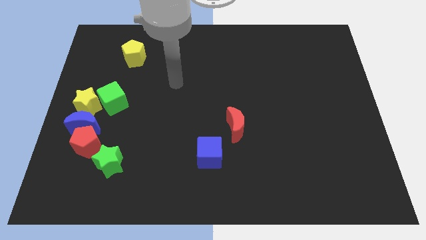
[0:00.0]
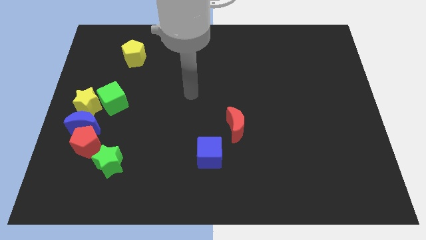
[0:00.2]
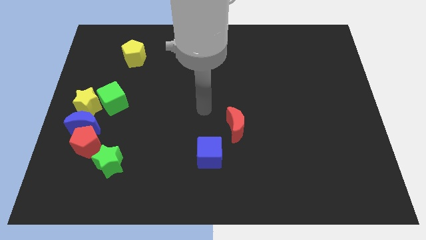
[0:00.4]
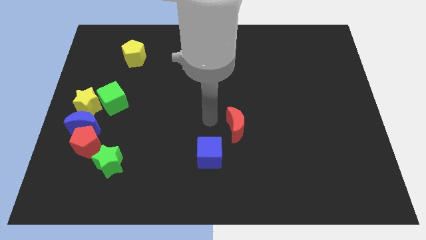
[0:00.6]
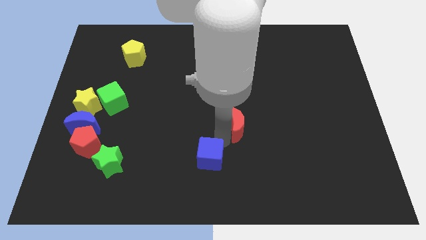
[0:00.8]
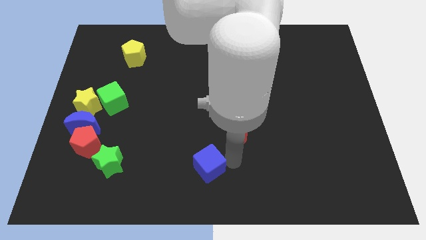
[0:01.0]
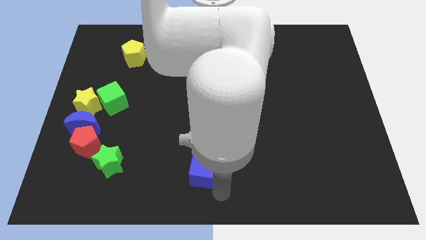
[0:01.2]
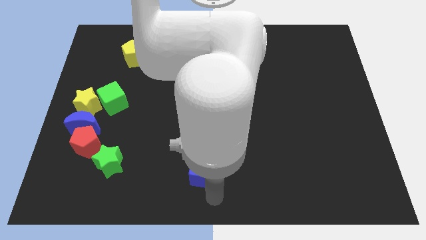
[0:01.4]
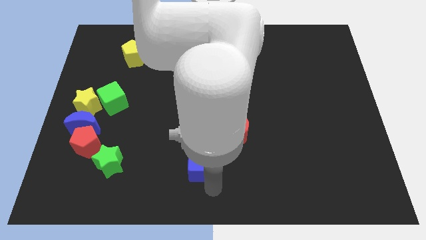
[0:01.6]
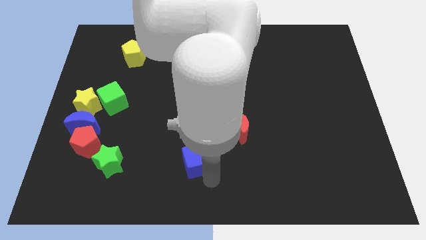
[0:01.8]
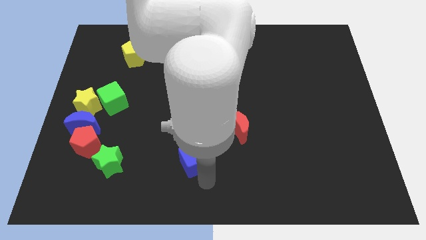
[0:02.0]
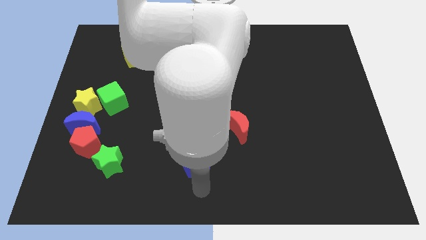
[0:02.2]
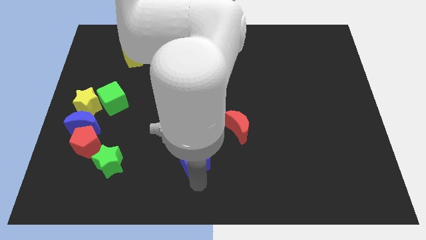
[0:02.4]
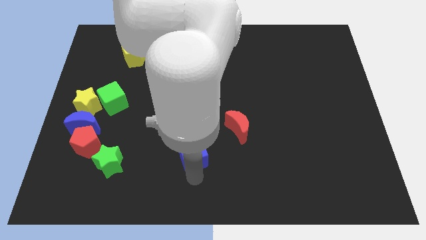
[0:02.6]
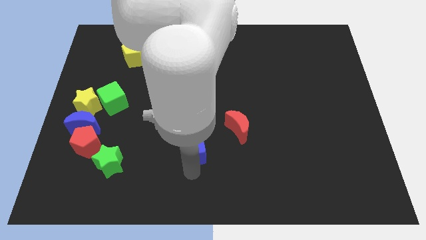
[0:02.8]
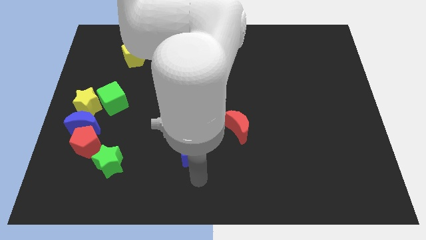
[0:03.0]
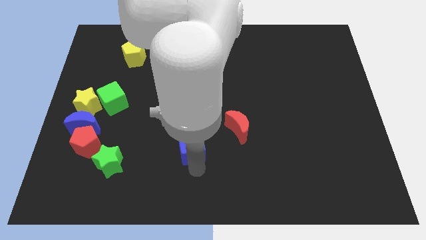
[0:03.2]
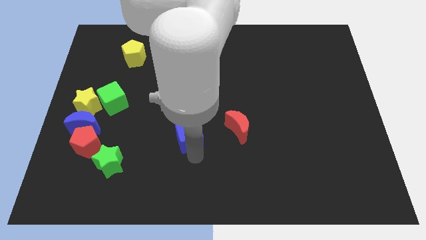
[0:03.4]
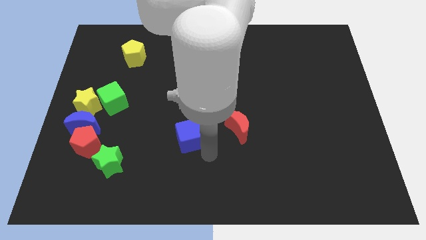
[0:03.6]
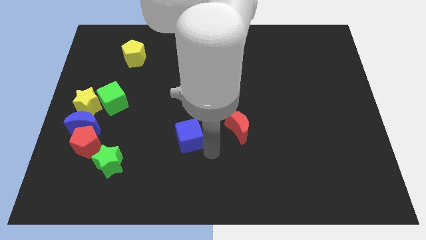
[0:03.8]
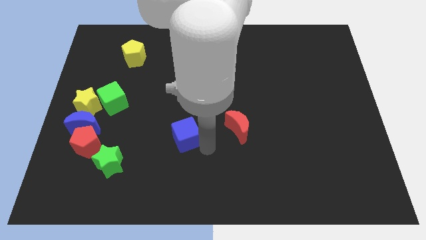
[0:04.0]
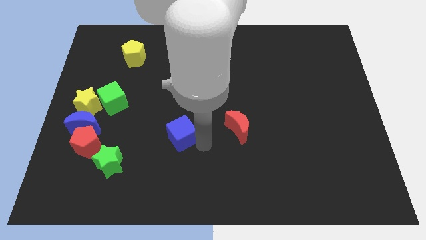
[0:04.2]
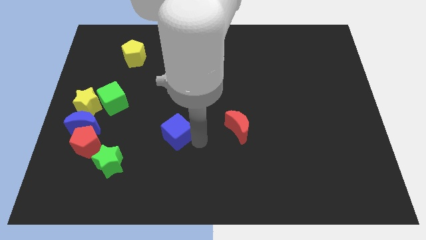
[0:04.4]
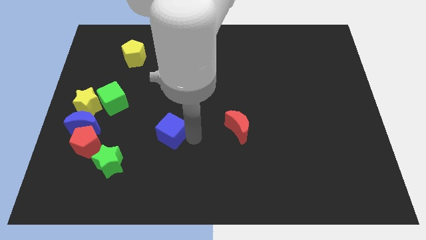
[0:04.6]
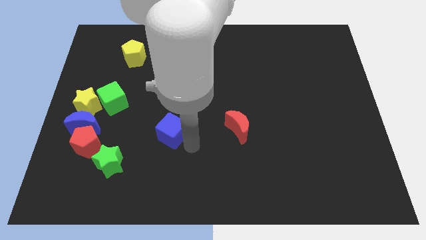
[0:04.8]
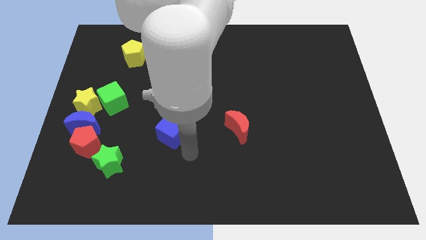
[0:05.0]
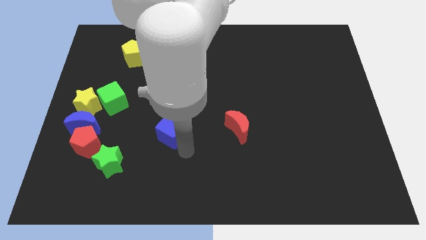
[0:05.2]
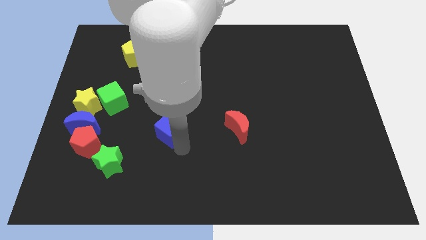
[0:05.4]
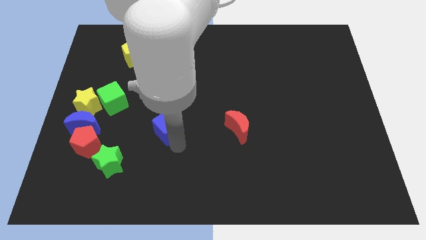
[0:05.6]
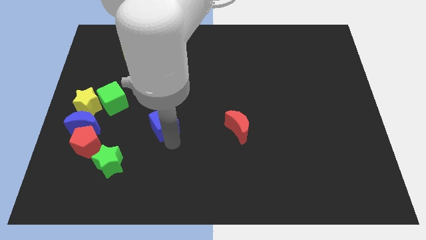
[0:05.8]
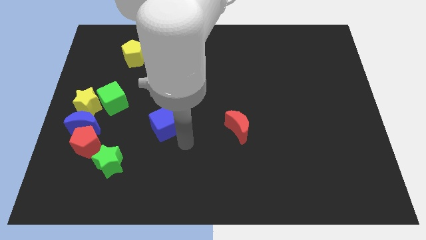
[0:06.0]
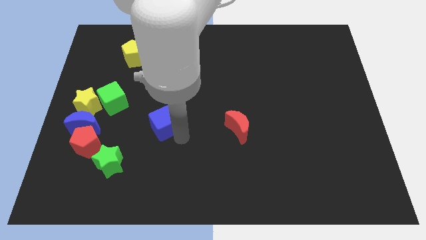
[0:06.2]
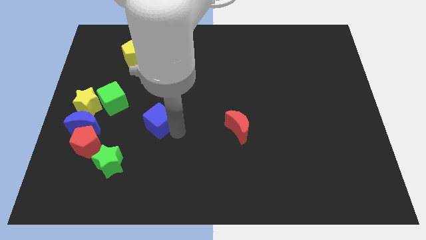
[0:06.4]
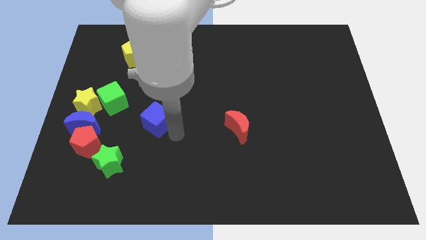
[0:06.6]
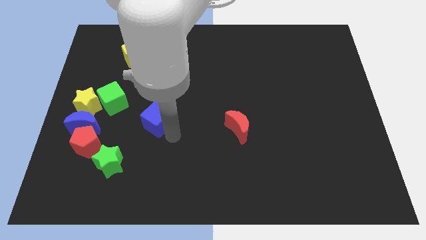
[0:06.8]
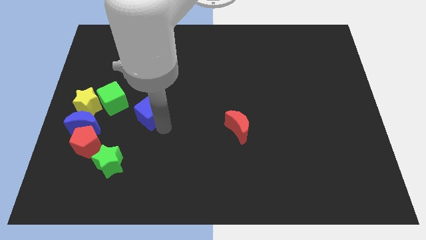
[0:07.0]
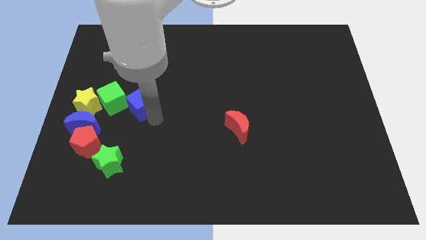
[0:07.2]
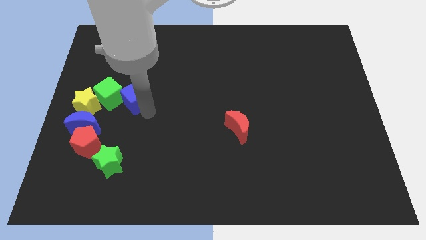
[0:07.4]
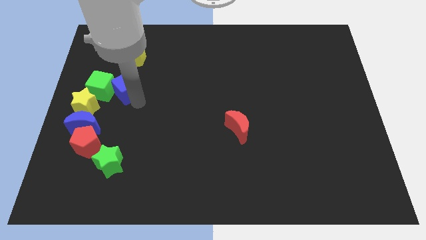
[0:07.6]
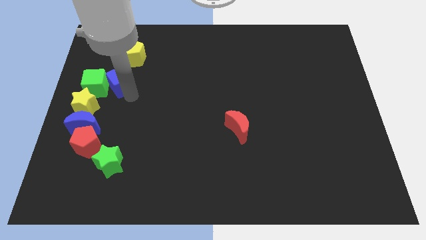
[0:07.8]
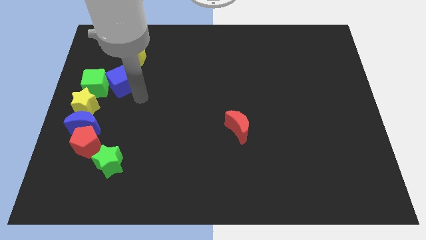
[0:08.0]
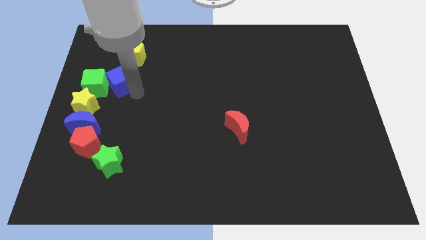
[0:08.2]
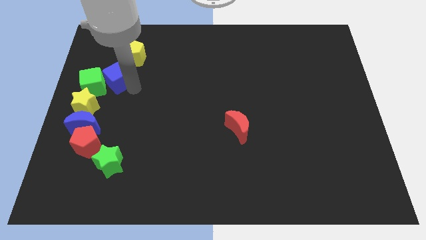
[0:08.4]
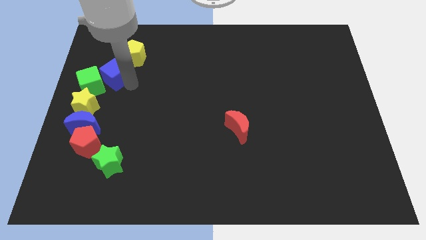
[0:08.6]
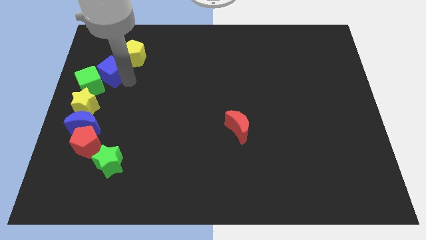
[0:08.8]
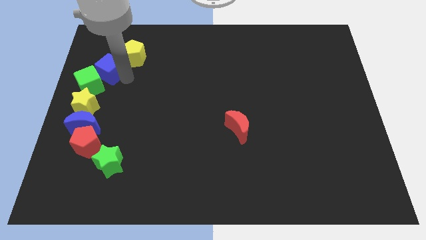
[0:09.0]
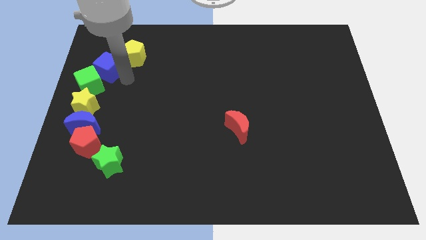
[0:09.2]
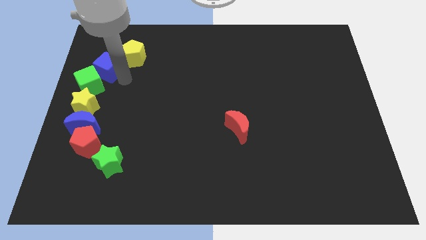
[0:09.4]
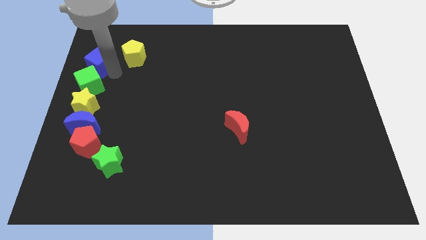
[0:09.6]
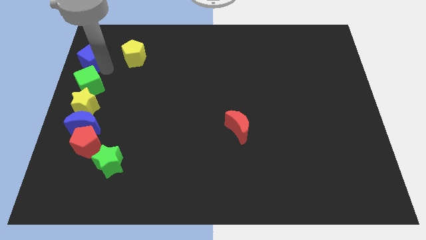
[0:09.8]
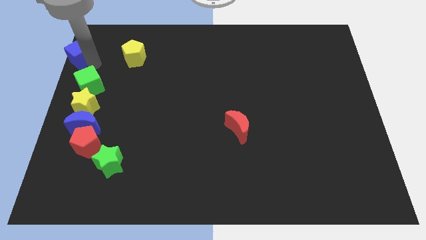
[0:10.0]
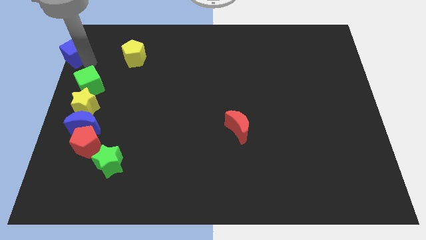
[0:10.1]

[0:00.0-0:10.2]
put the blue cube to the upper left corner
